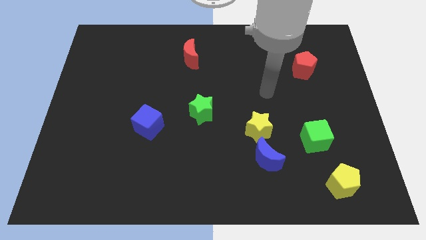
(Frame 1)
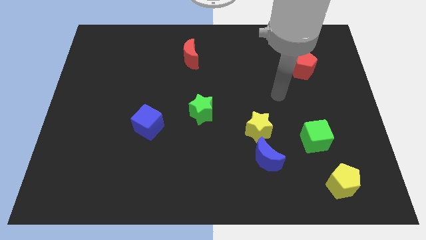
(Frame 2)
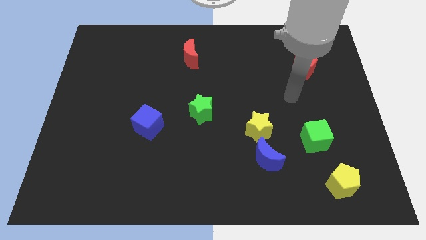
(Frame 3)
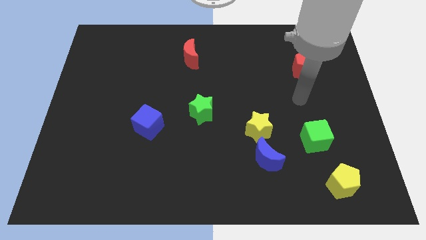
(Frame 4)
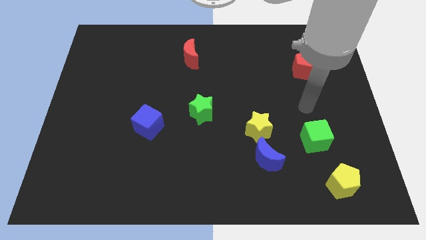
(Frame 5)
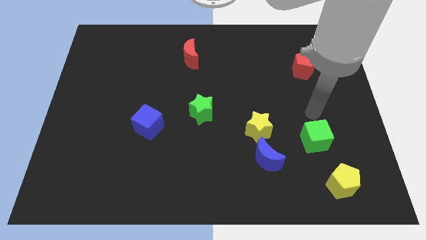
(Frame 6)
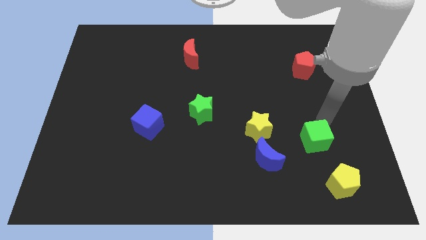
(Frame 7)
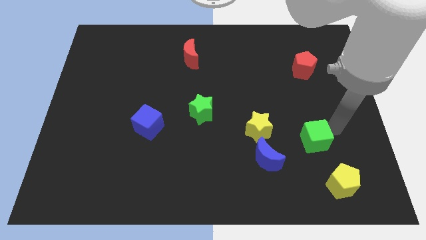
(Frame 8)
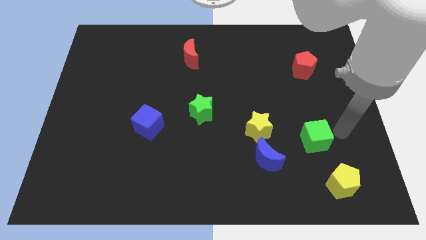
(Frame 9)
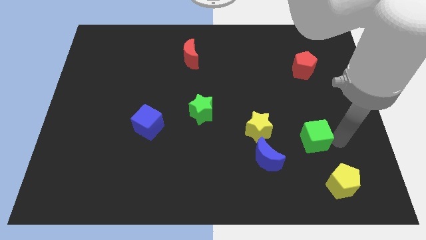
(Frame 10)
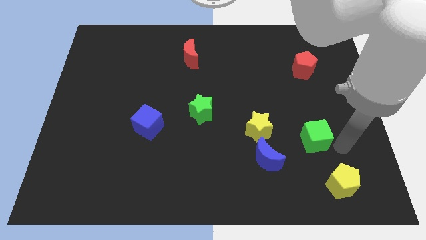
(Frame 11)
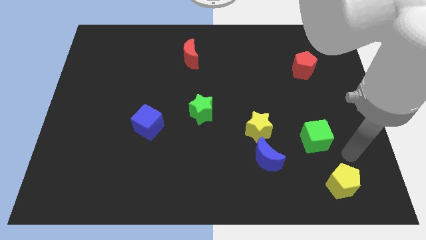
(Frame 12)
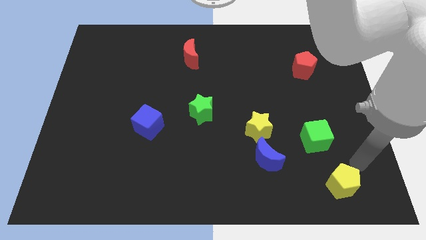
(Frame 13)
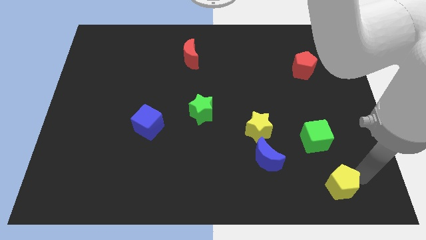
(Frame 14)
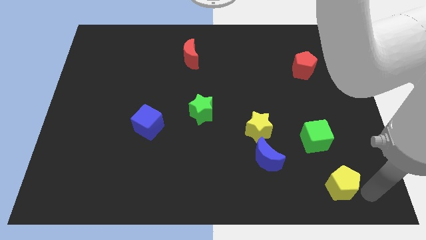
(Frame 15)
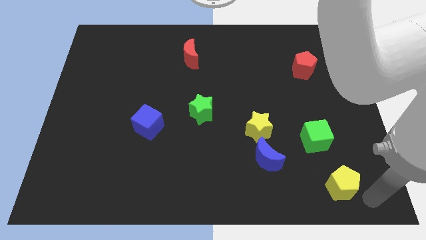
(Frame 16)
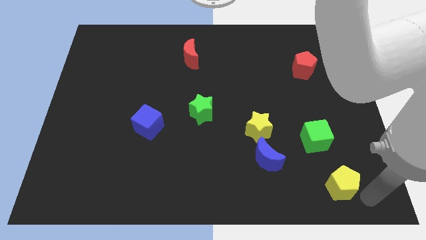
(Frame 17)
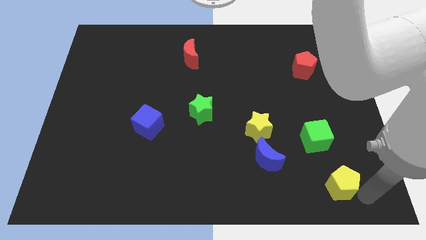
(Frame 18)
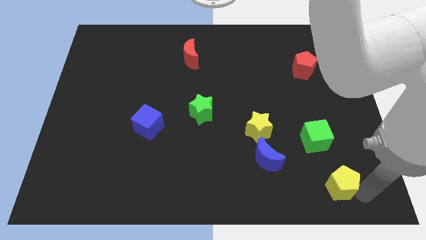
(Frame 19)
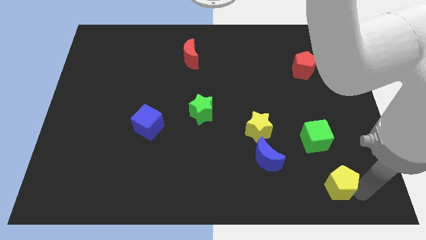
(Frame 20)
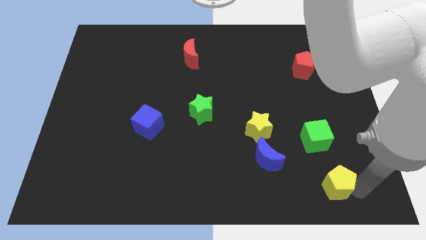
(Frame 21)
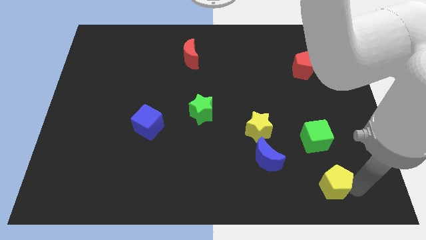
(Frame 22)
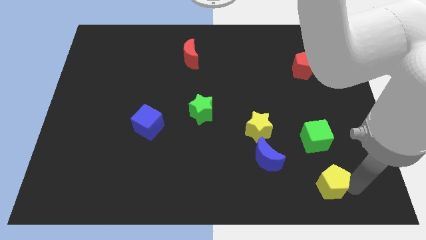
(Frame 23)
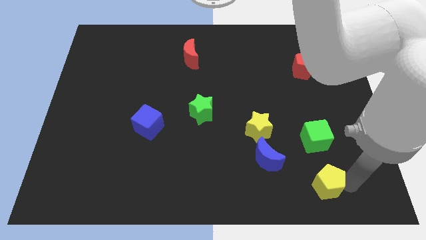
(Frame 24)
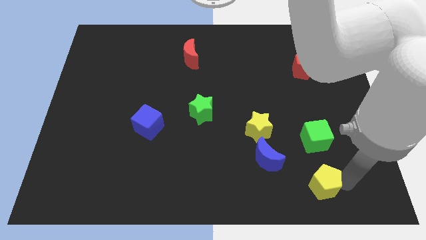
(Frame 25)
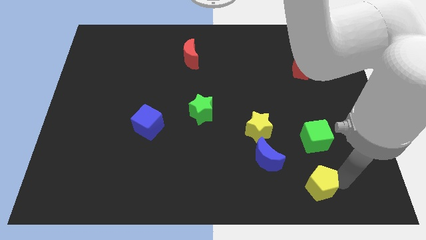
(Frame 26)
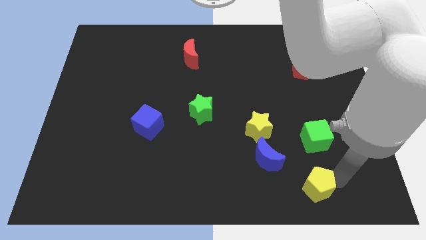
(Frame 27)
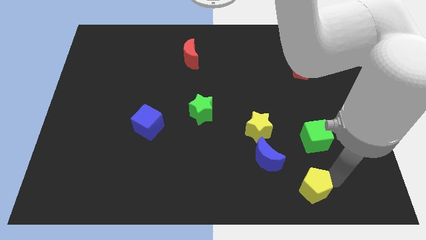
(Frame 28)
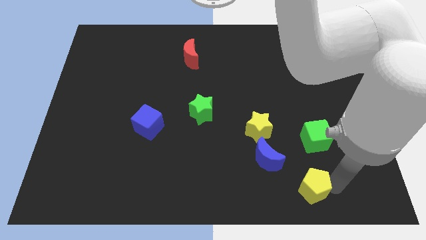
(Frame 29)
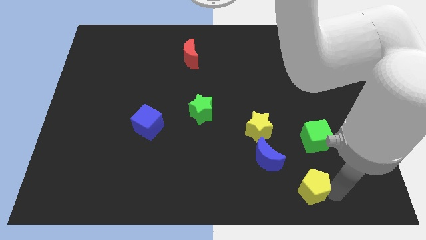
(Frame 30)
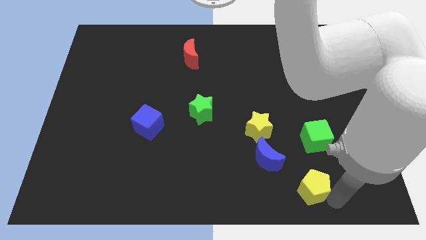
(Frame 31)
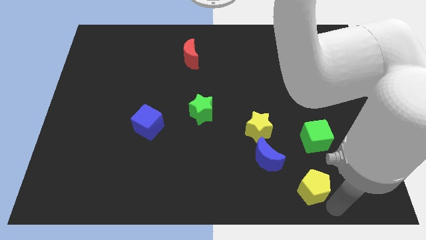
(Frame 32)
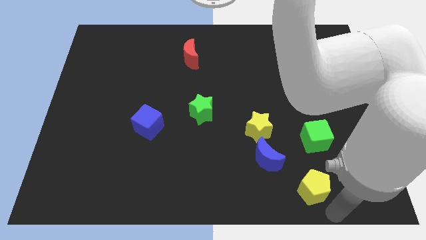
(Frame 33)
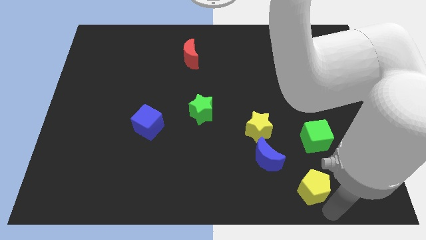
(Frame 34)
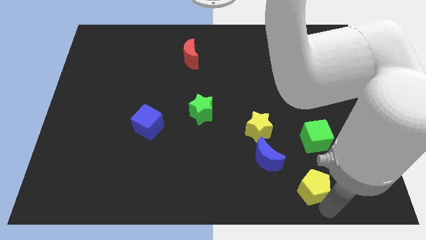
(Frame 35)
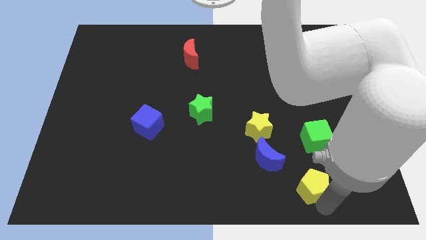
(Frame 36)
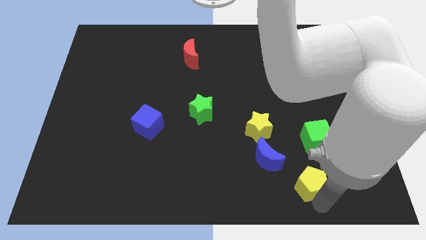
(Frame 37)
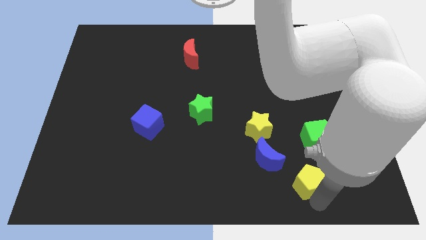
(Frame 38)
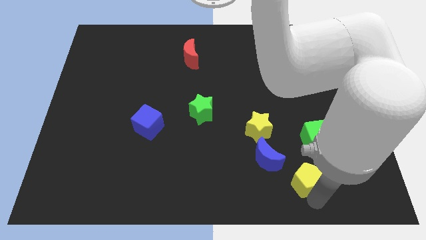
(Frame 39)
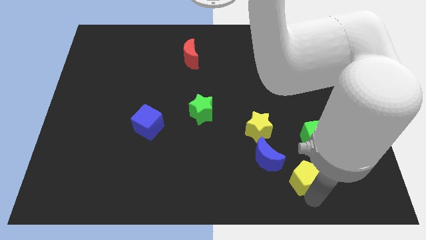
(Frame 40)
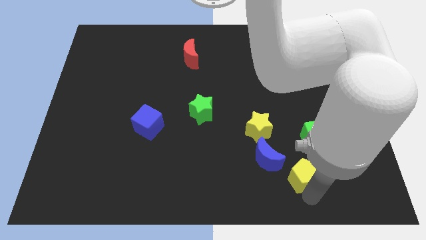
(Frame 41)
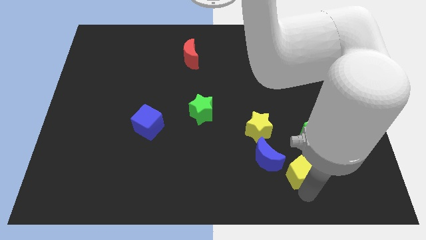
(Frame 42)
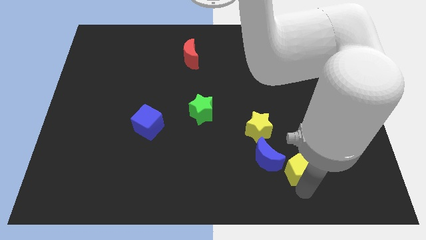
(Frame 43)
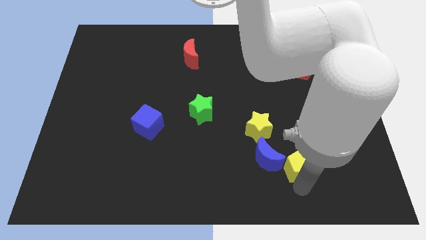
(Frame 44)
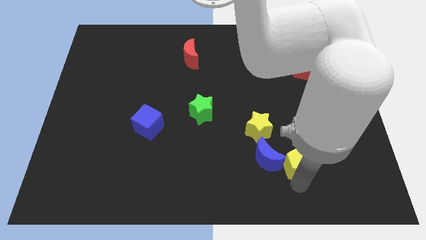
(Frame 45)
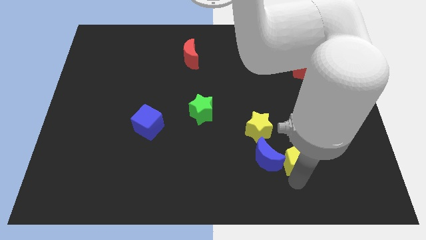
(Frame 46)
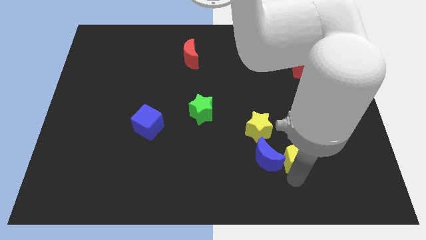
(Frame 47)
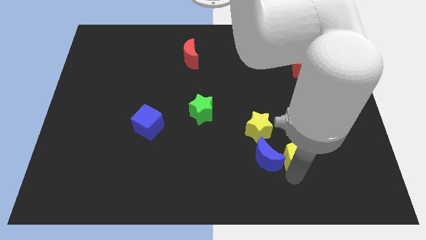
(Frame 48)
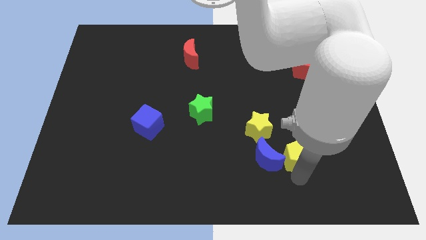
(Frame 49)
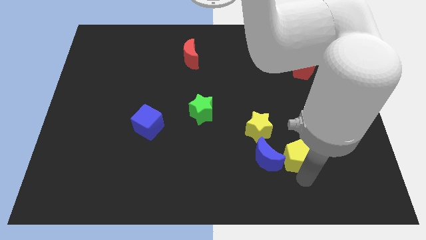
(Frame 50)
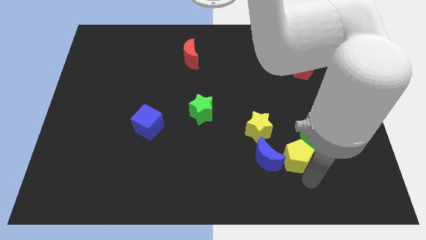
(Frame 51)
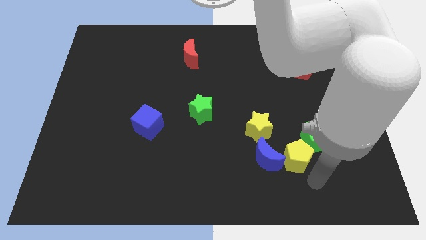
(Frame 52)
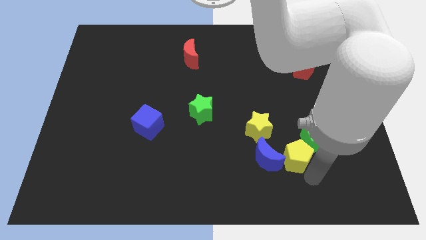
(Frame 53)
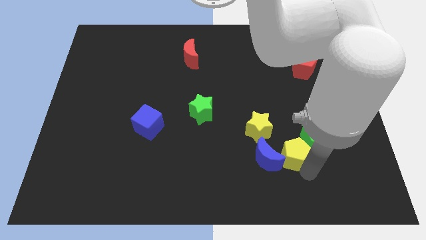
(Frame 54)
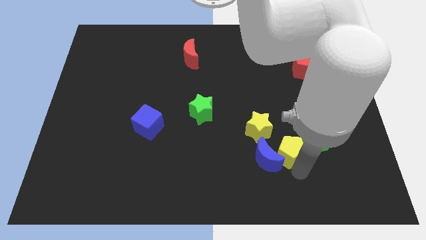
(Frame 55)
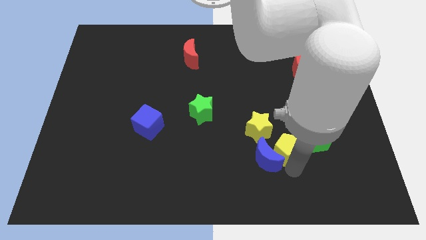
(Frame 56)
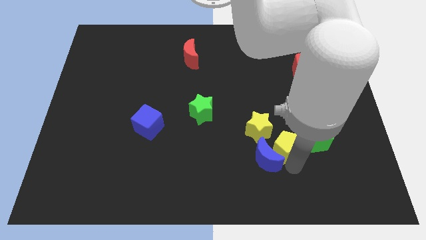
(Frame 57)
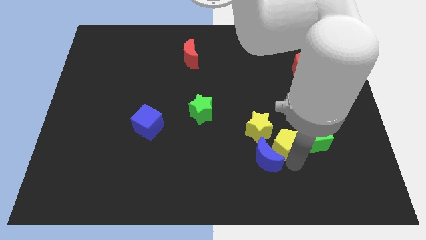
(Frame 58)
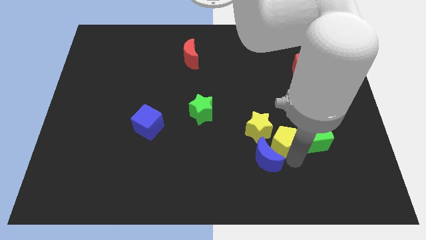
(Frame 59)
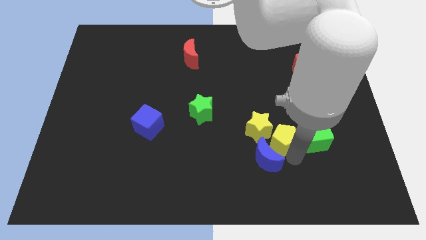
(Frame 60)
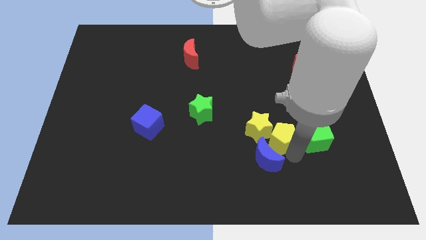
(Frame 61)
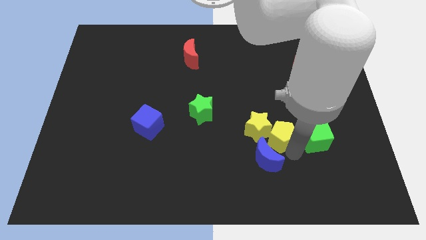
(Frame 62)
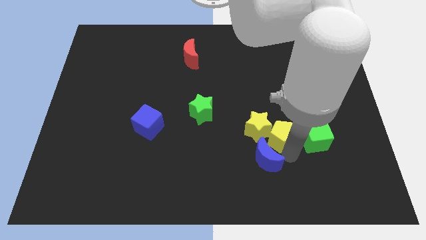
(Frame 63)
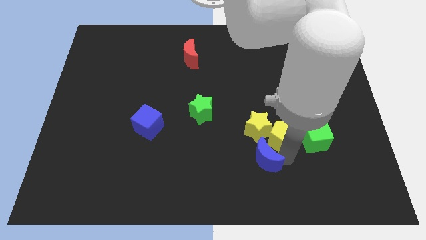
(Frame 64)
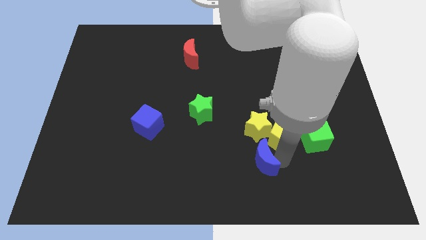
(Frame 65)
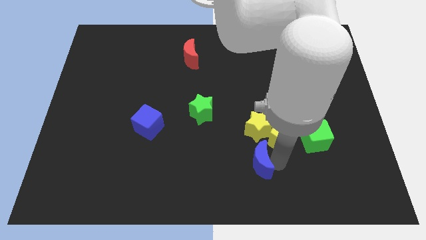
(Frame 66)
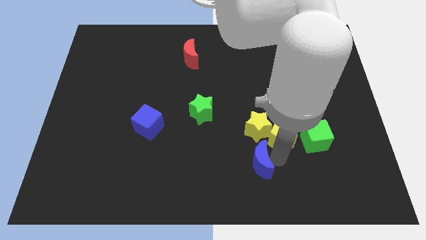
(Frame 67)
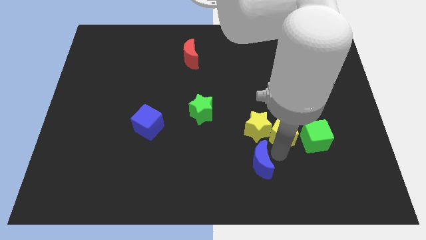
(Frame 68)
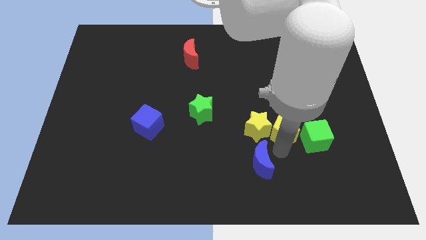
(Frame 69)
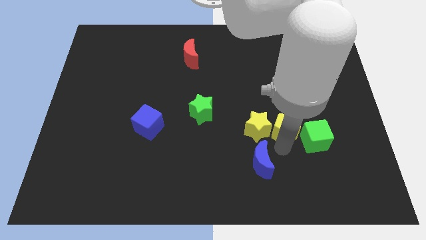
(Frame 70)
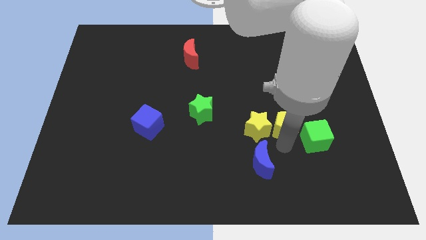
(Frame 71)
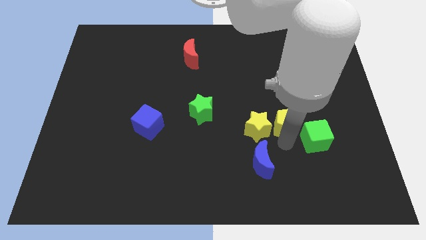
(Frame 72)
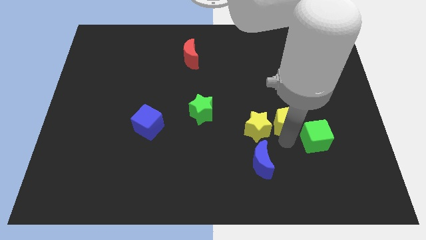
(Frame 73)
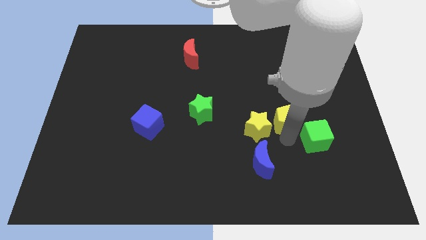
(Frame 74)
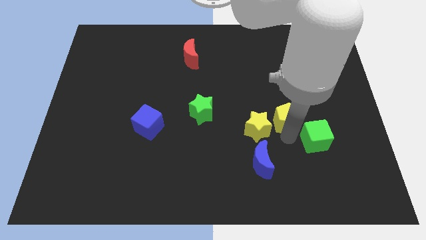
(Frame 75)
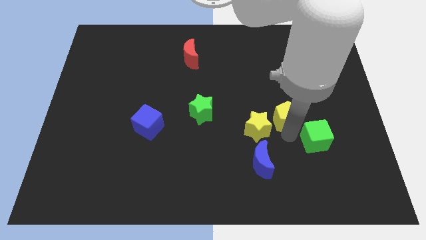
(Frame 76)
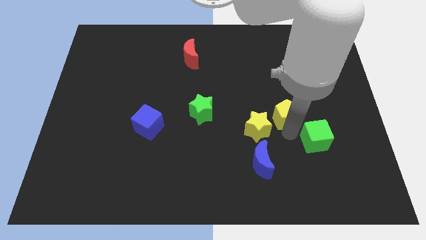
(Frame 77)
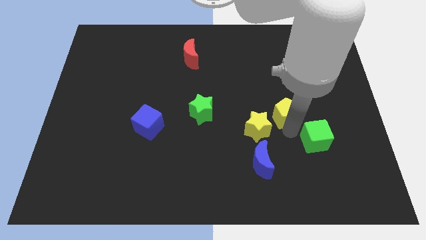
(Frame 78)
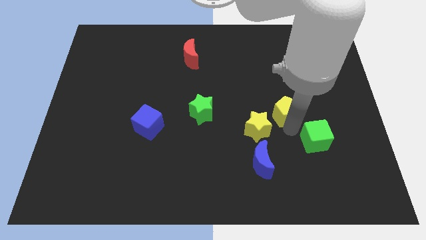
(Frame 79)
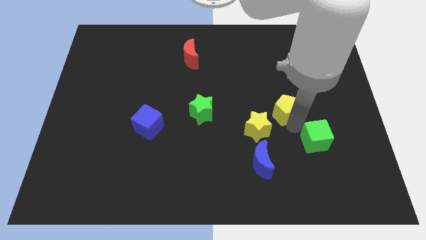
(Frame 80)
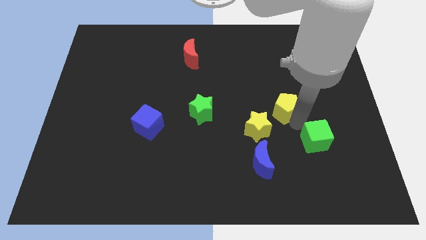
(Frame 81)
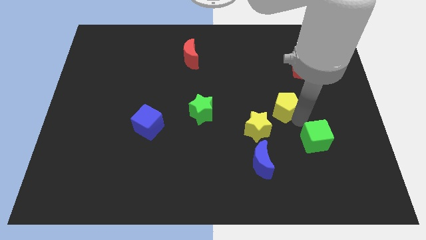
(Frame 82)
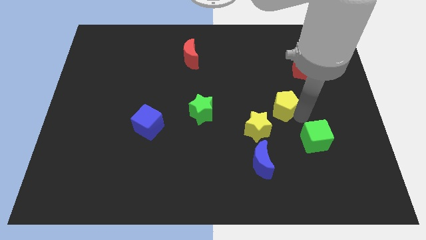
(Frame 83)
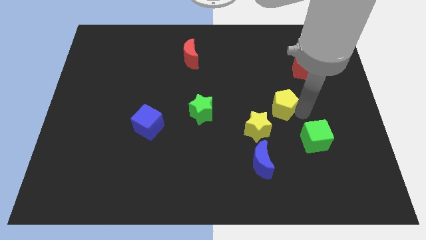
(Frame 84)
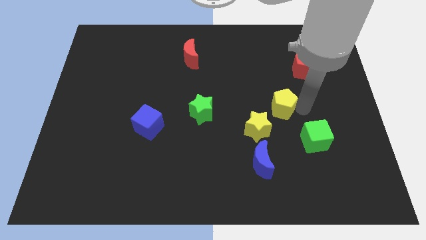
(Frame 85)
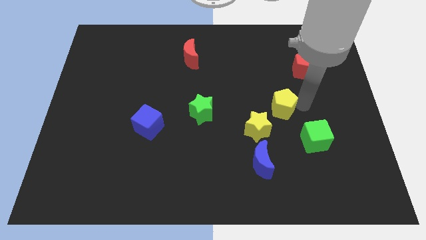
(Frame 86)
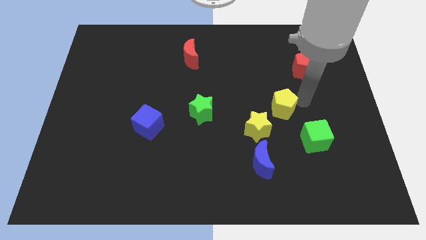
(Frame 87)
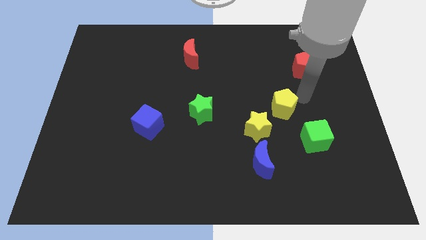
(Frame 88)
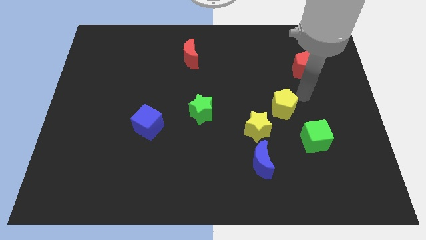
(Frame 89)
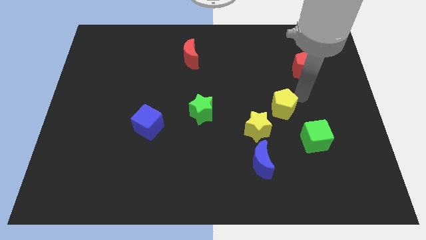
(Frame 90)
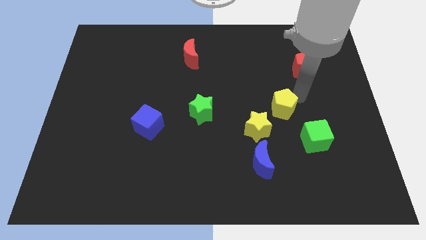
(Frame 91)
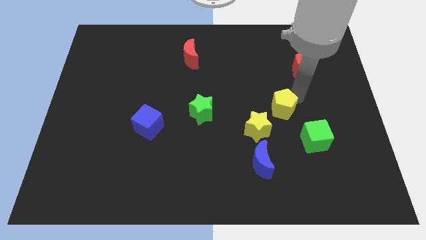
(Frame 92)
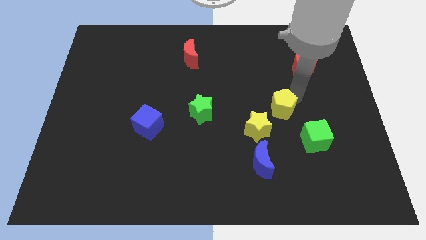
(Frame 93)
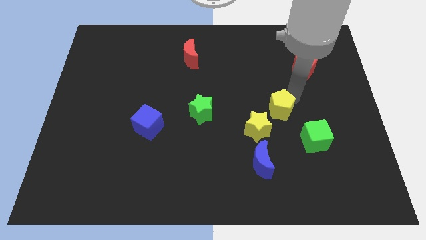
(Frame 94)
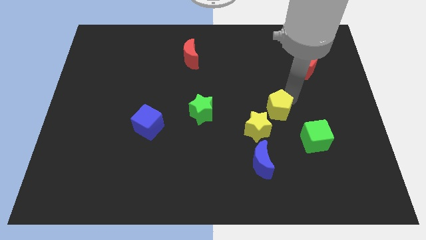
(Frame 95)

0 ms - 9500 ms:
push the yellow pentagon diagonally upwards and left
